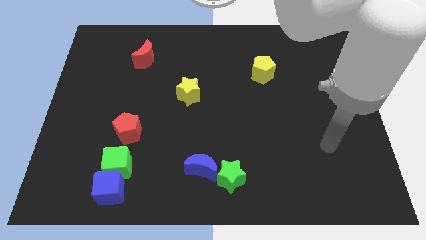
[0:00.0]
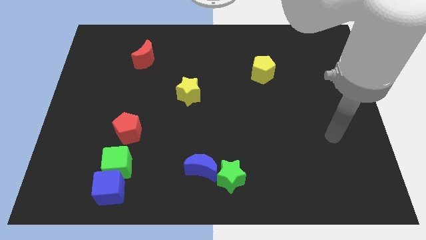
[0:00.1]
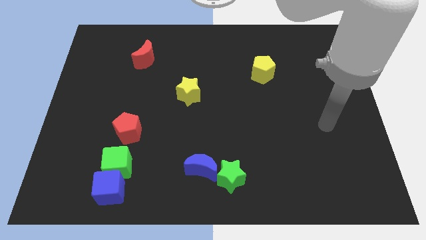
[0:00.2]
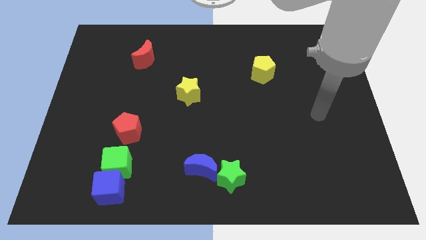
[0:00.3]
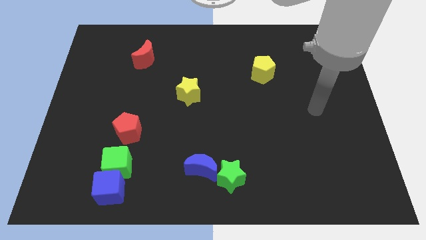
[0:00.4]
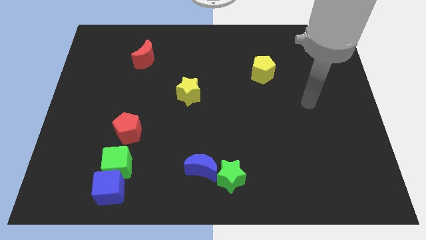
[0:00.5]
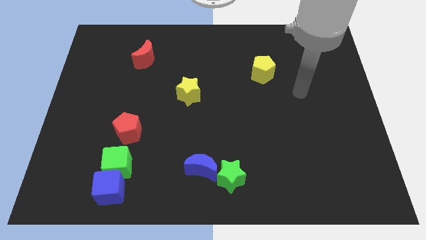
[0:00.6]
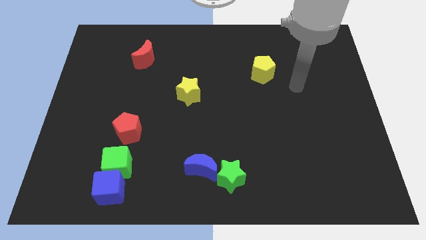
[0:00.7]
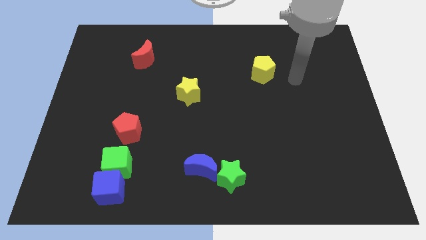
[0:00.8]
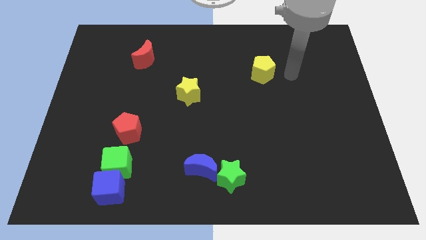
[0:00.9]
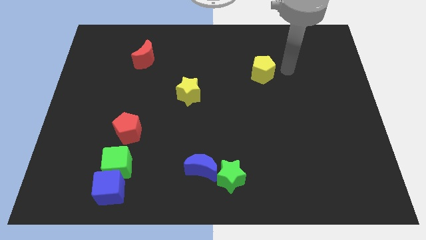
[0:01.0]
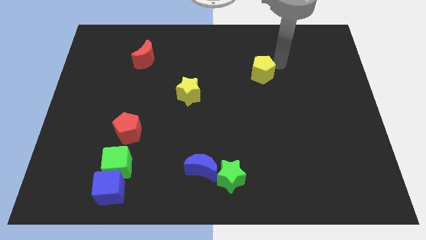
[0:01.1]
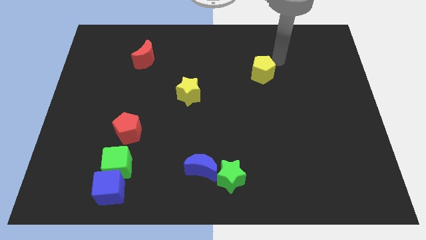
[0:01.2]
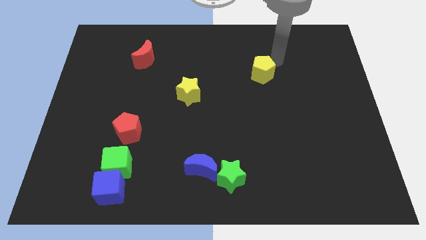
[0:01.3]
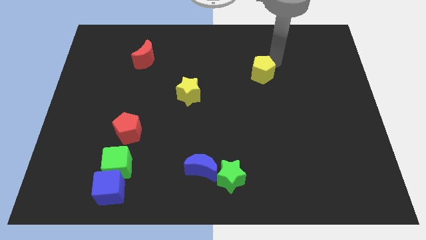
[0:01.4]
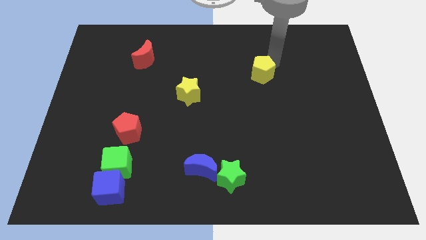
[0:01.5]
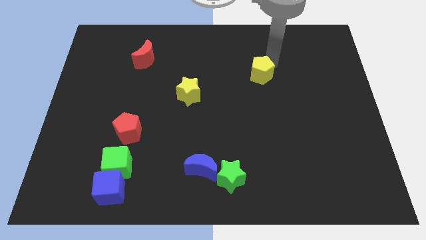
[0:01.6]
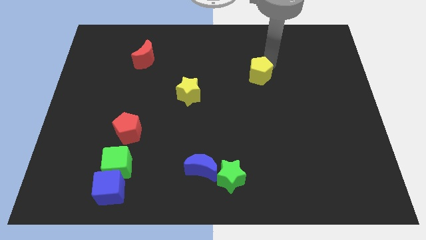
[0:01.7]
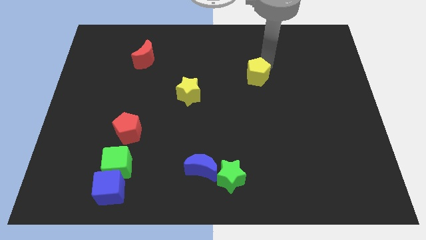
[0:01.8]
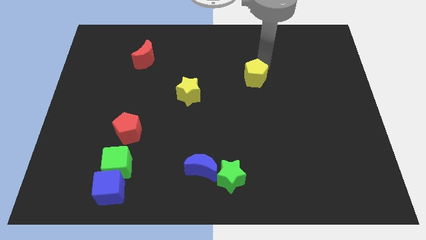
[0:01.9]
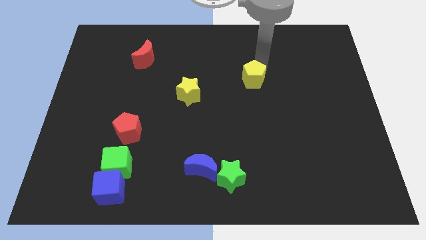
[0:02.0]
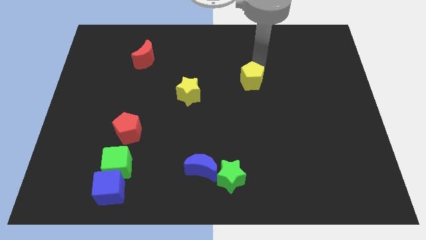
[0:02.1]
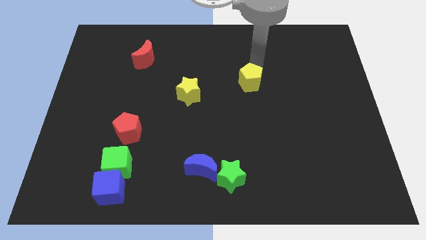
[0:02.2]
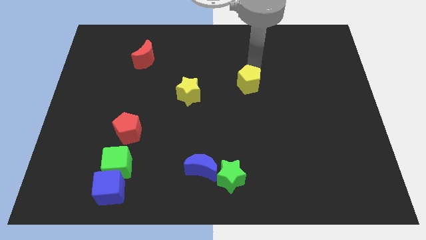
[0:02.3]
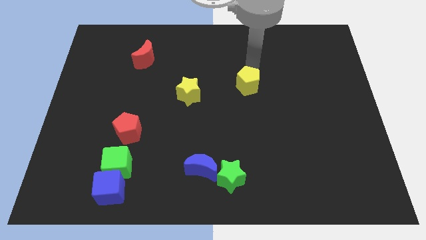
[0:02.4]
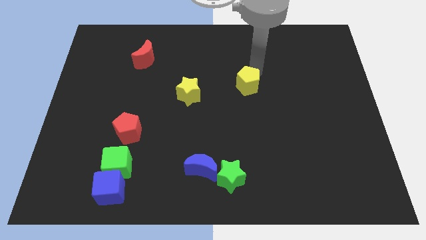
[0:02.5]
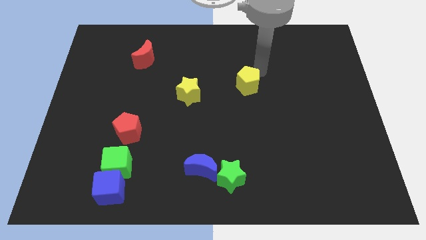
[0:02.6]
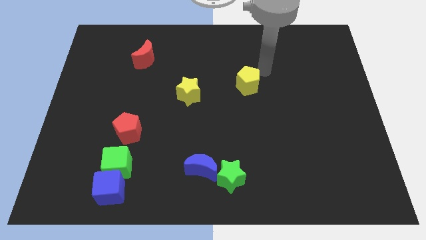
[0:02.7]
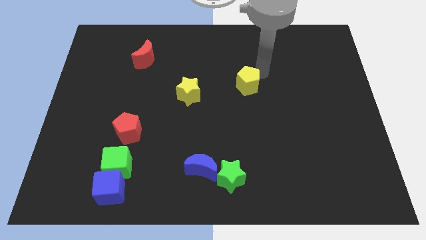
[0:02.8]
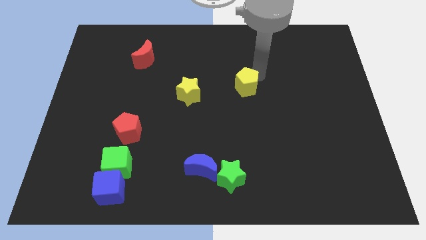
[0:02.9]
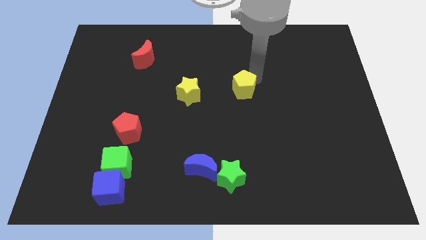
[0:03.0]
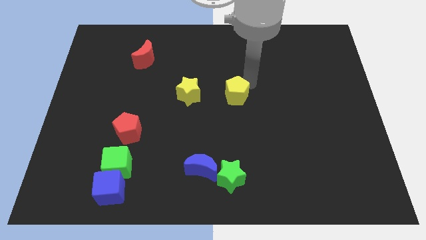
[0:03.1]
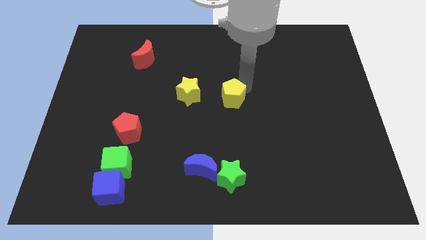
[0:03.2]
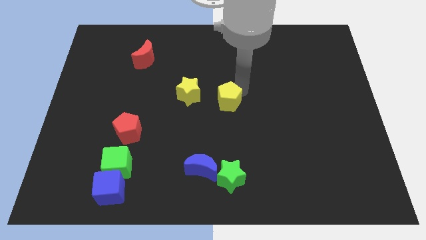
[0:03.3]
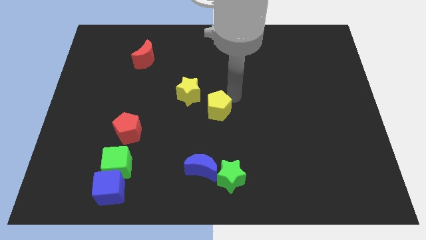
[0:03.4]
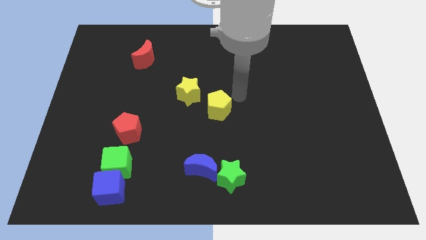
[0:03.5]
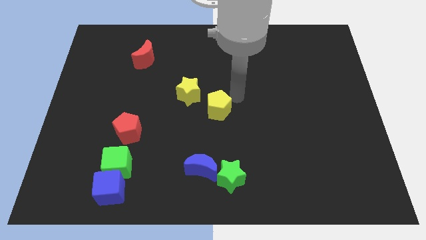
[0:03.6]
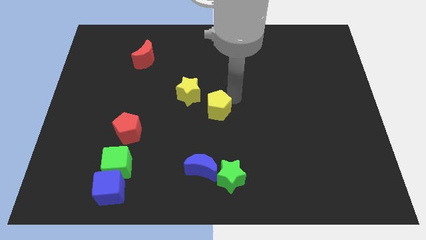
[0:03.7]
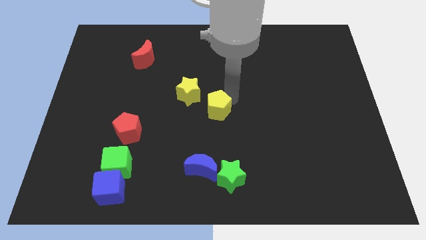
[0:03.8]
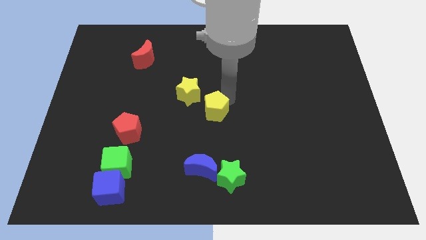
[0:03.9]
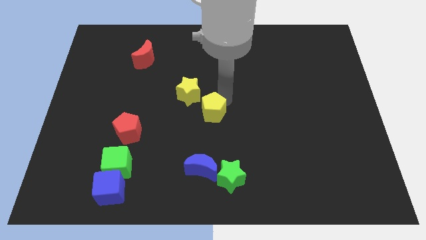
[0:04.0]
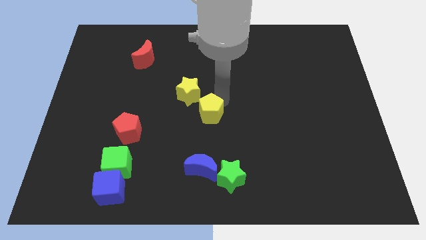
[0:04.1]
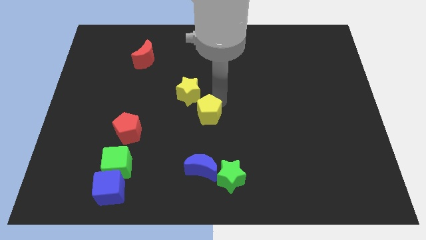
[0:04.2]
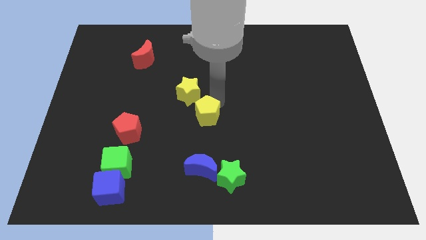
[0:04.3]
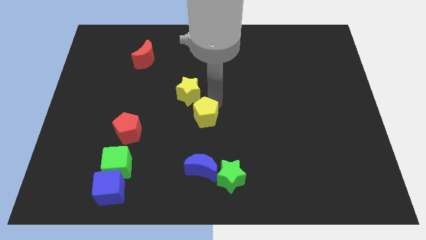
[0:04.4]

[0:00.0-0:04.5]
push the yellow pentagon down and to the left

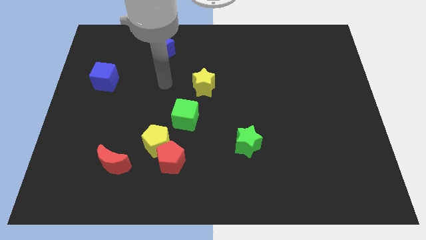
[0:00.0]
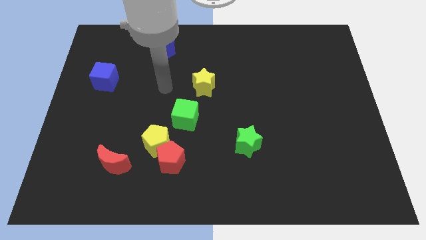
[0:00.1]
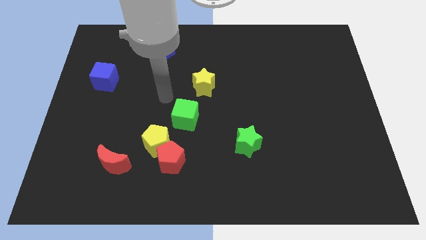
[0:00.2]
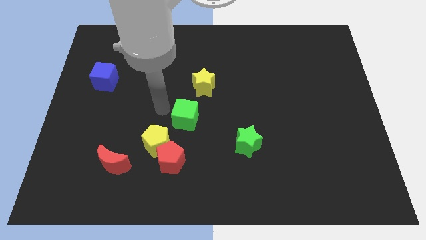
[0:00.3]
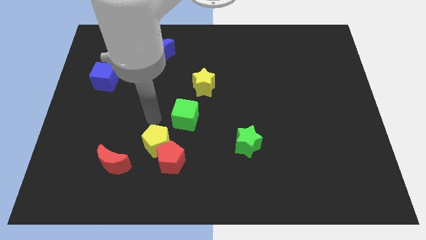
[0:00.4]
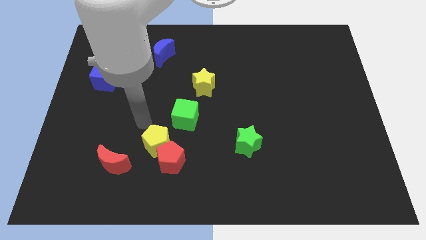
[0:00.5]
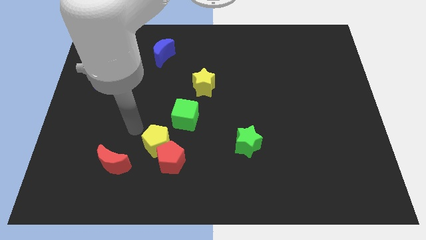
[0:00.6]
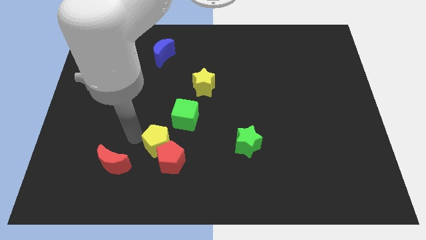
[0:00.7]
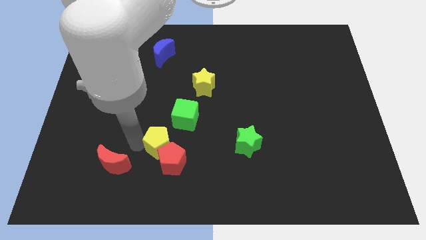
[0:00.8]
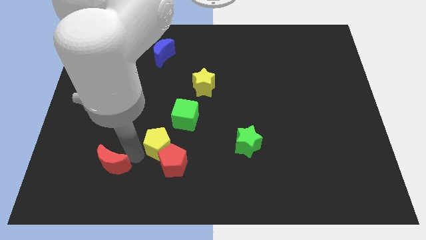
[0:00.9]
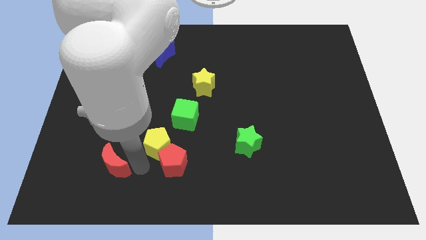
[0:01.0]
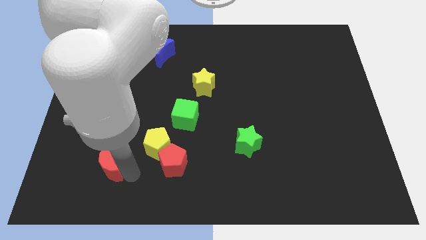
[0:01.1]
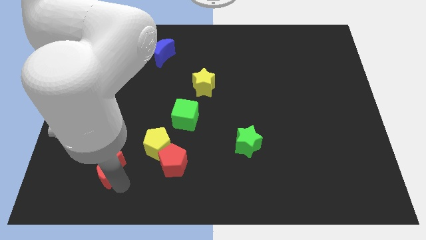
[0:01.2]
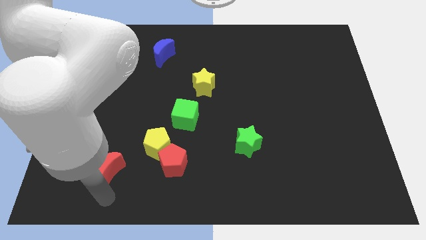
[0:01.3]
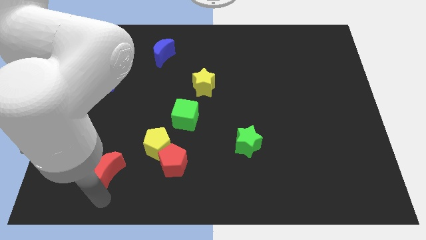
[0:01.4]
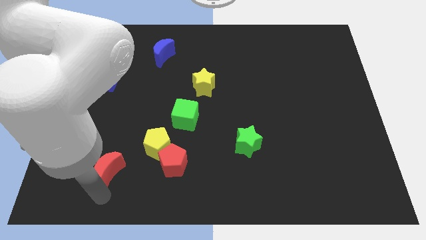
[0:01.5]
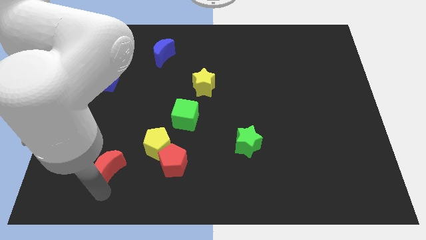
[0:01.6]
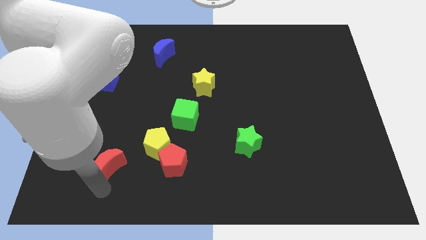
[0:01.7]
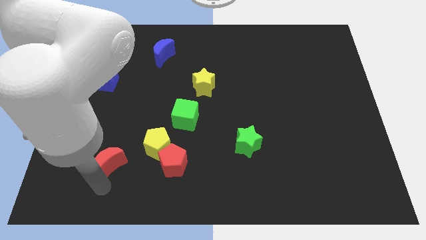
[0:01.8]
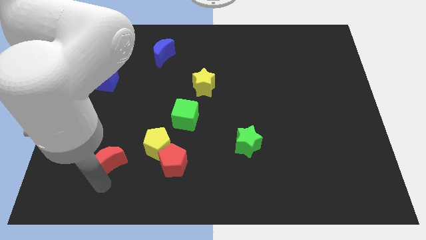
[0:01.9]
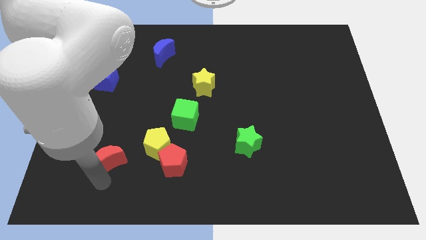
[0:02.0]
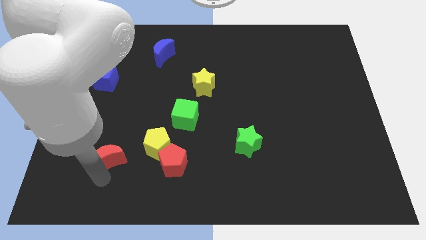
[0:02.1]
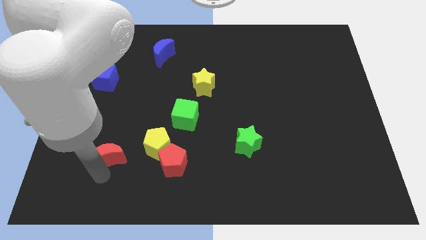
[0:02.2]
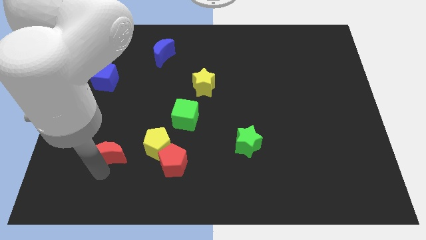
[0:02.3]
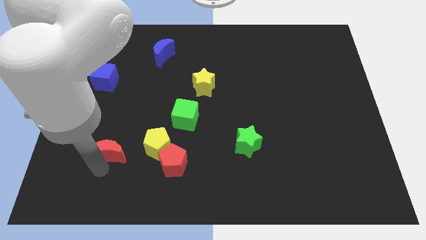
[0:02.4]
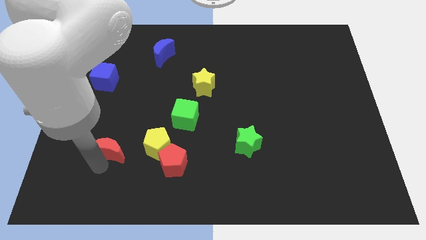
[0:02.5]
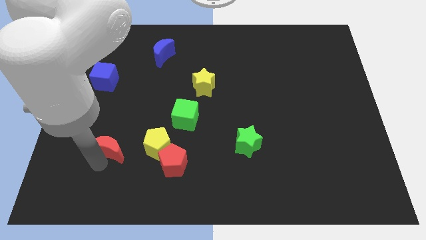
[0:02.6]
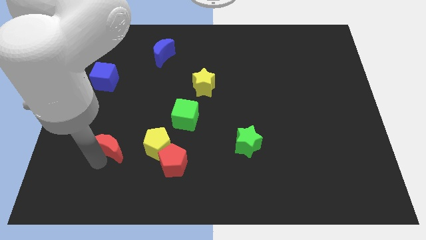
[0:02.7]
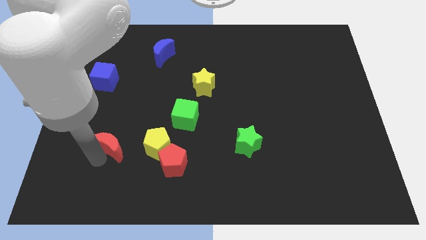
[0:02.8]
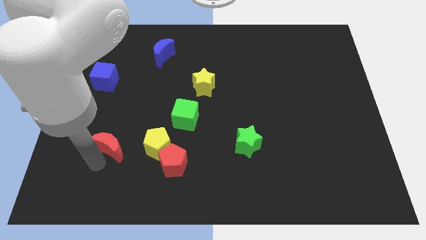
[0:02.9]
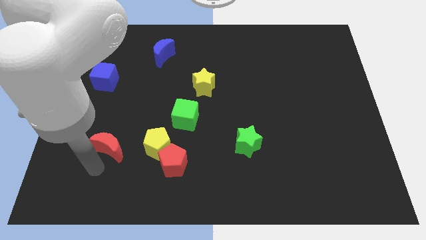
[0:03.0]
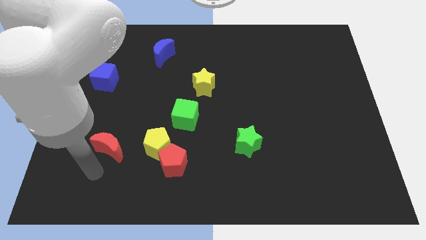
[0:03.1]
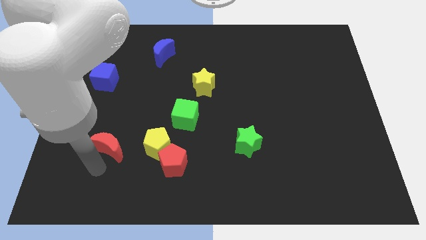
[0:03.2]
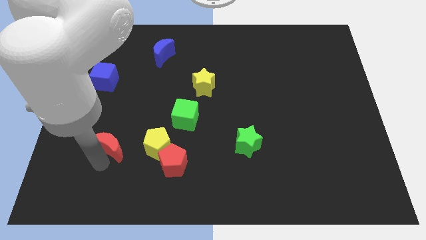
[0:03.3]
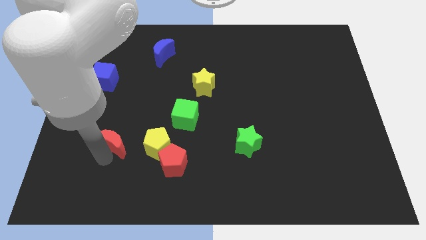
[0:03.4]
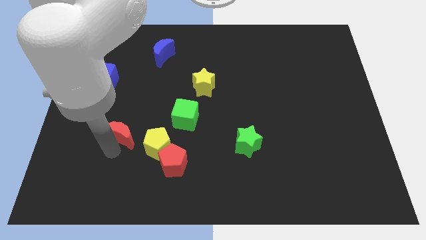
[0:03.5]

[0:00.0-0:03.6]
push the red moon slightly up
